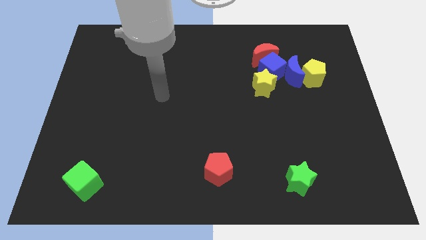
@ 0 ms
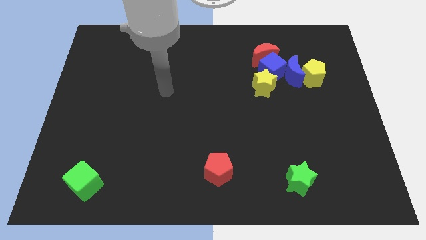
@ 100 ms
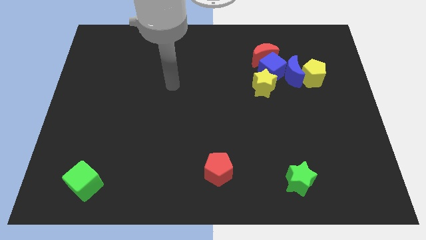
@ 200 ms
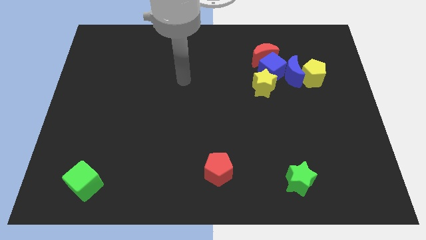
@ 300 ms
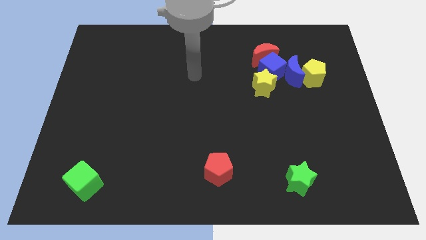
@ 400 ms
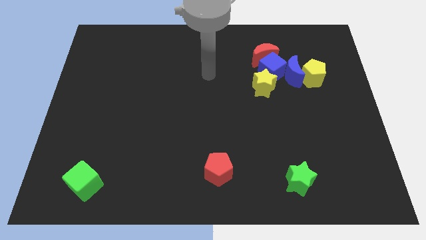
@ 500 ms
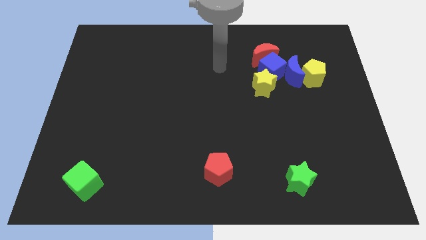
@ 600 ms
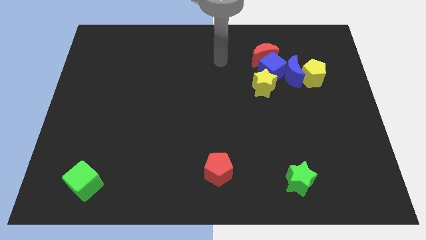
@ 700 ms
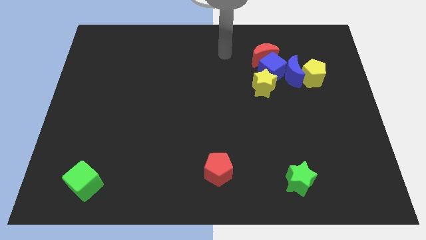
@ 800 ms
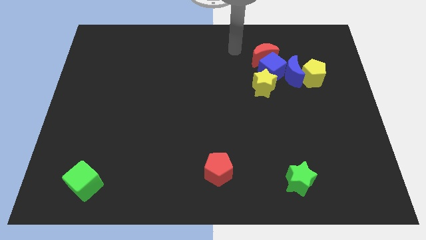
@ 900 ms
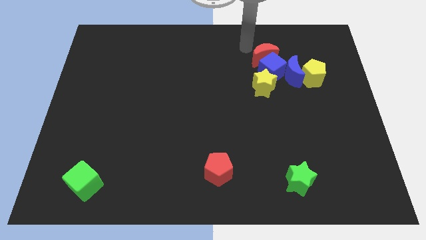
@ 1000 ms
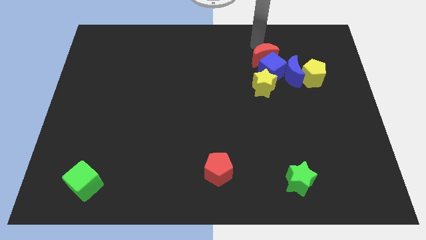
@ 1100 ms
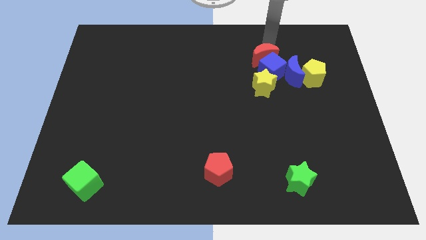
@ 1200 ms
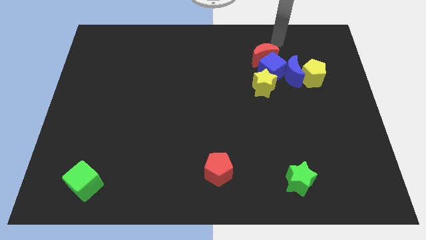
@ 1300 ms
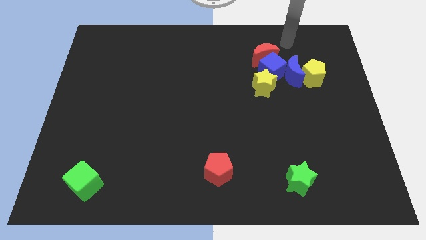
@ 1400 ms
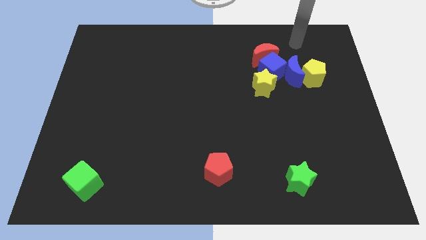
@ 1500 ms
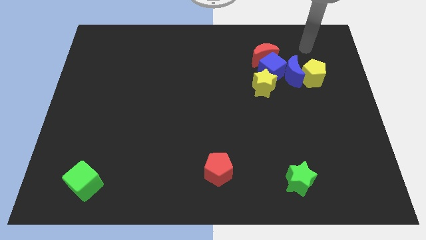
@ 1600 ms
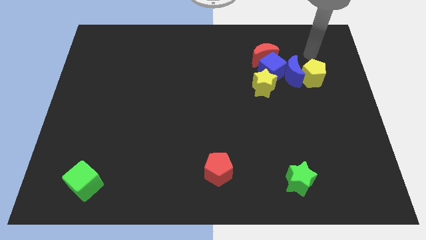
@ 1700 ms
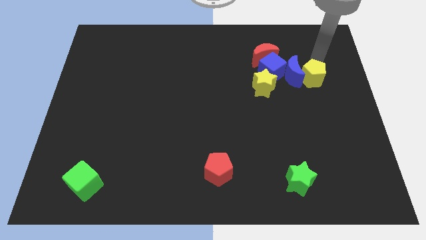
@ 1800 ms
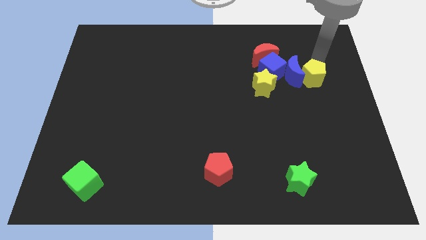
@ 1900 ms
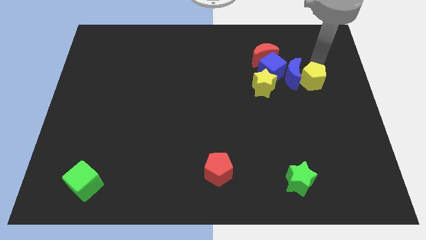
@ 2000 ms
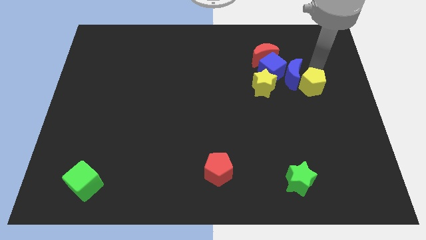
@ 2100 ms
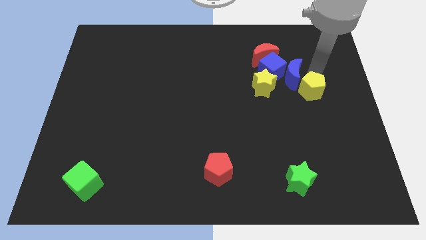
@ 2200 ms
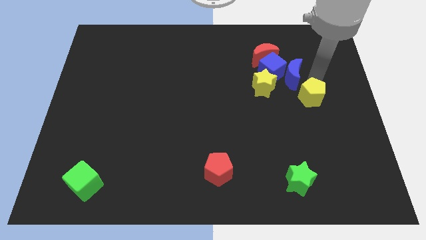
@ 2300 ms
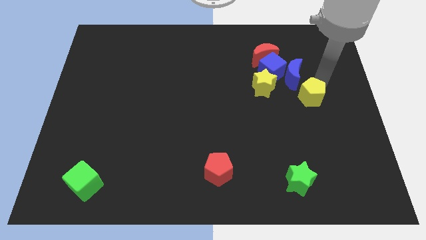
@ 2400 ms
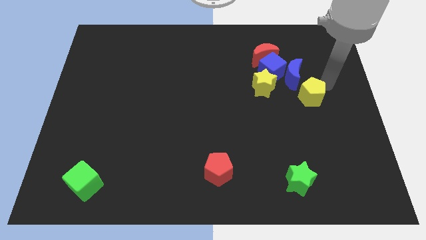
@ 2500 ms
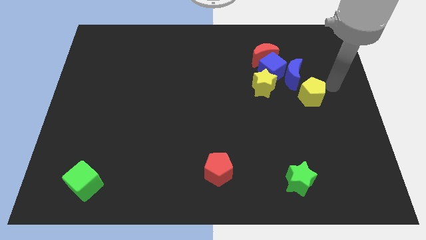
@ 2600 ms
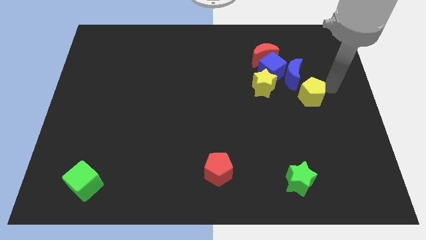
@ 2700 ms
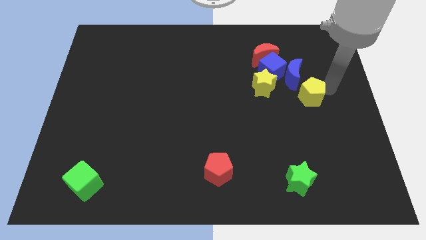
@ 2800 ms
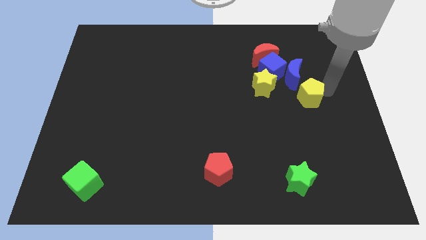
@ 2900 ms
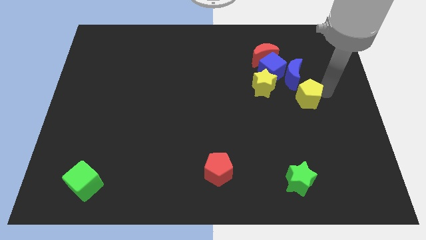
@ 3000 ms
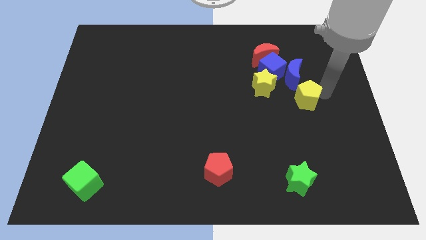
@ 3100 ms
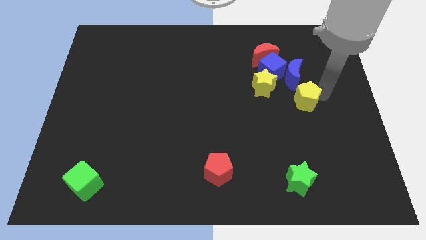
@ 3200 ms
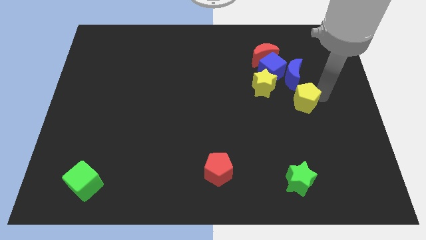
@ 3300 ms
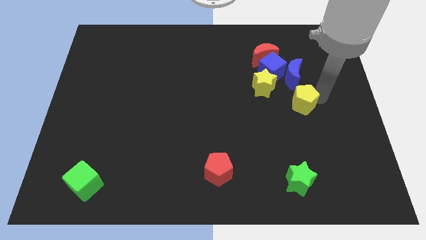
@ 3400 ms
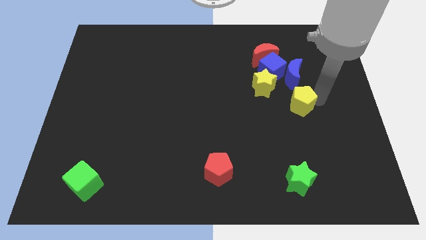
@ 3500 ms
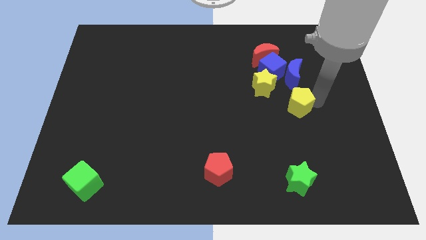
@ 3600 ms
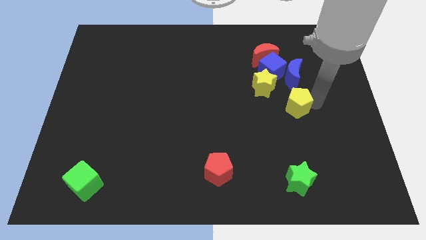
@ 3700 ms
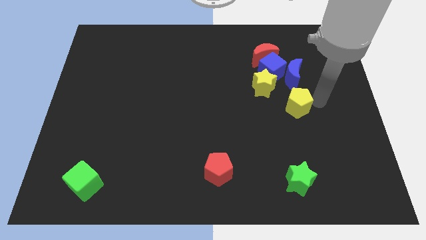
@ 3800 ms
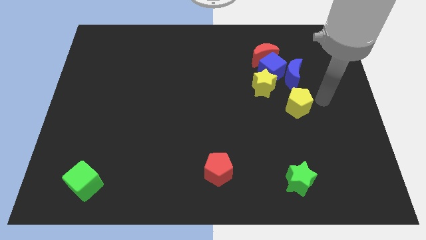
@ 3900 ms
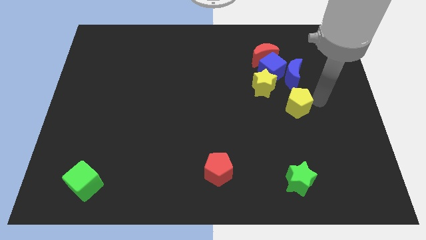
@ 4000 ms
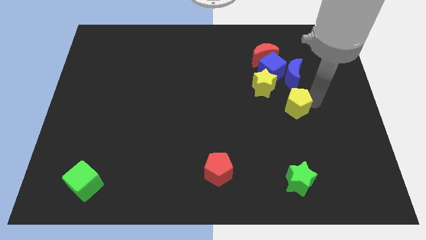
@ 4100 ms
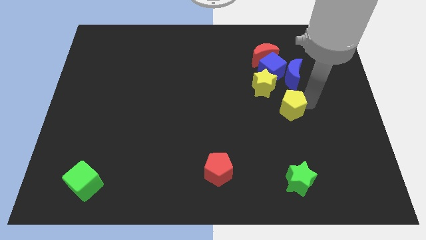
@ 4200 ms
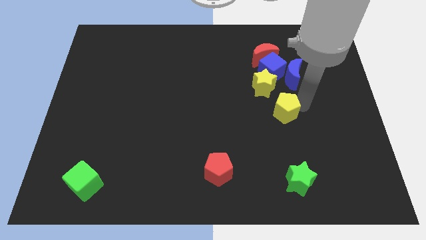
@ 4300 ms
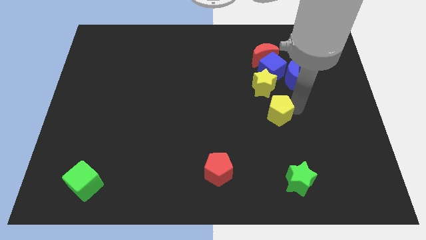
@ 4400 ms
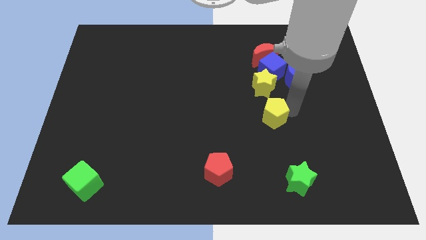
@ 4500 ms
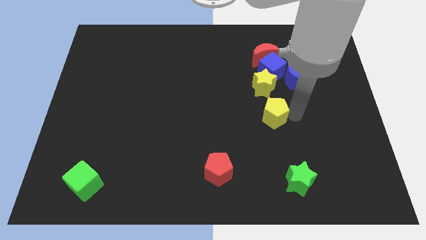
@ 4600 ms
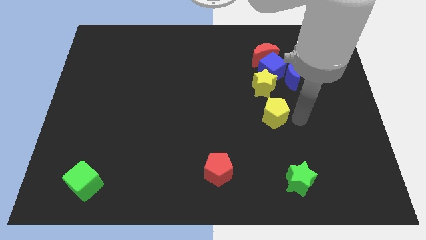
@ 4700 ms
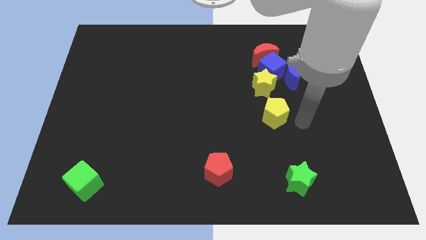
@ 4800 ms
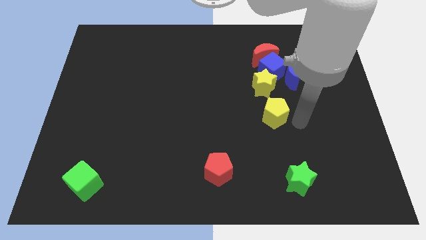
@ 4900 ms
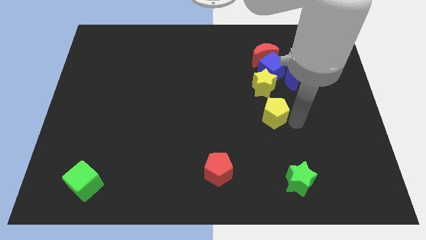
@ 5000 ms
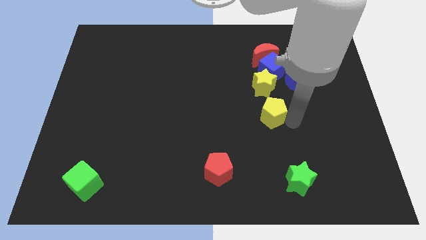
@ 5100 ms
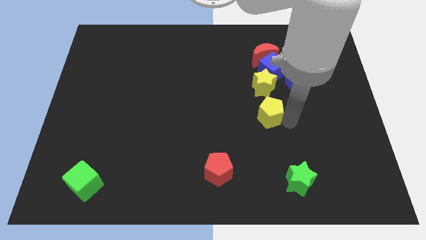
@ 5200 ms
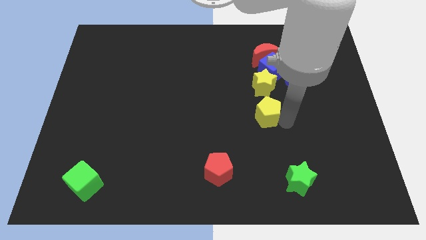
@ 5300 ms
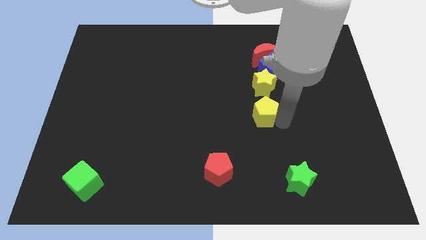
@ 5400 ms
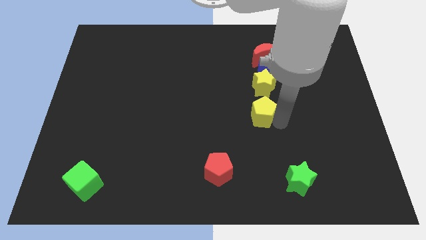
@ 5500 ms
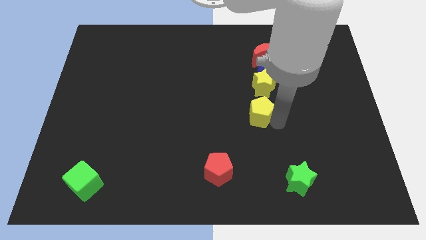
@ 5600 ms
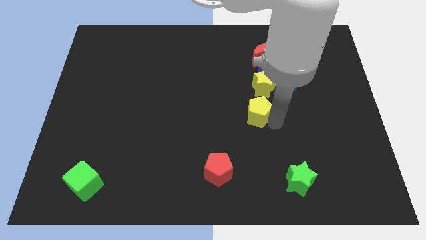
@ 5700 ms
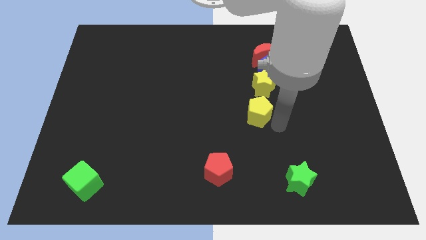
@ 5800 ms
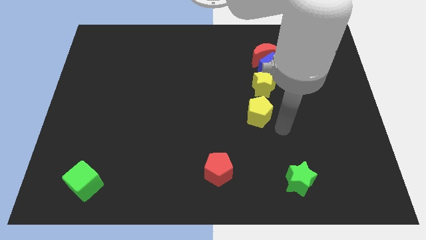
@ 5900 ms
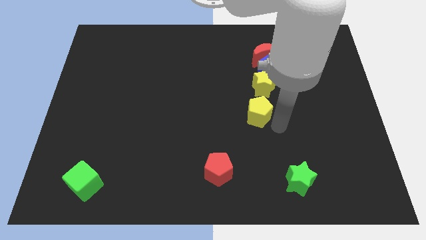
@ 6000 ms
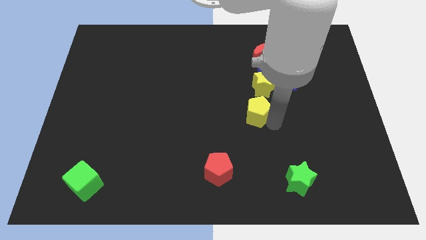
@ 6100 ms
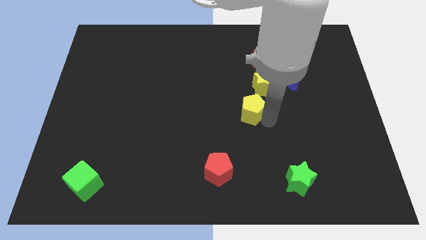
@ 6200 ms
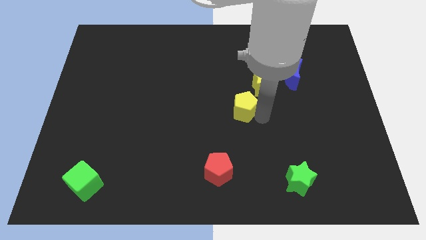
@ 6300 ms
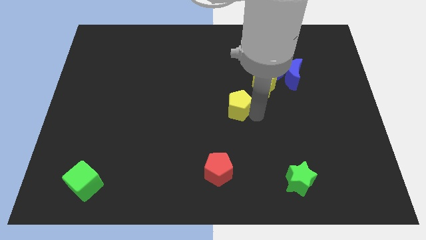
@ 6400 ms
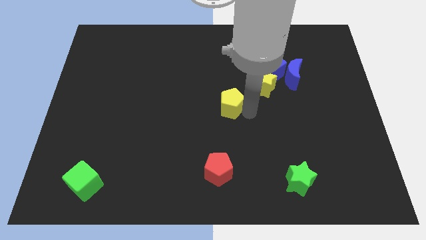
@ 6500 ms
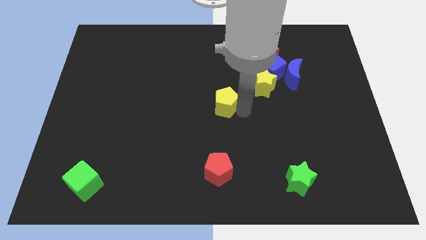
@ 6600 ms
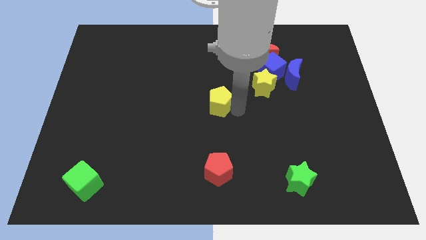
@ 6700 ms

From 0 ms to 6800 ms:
slide the yellow pentagon left

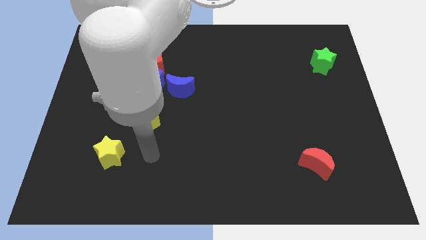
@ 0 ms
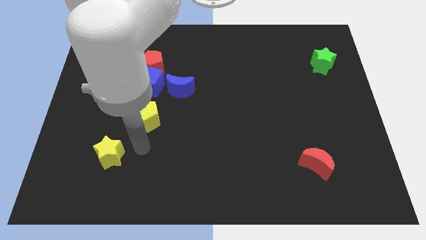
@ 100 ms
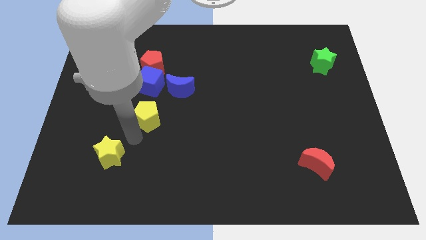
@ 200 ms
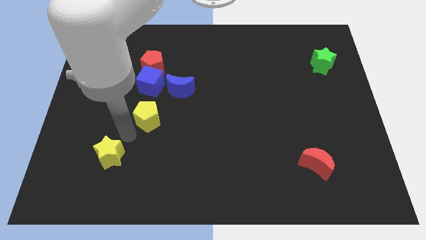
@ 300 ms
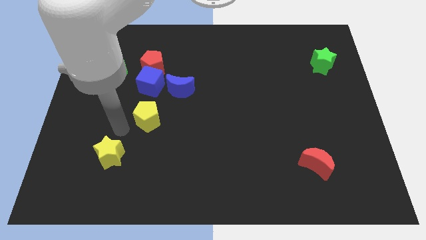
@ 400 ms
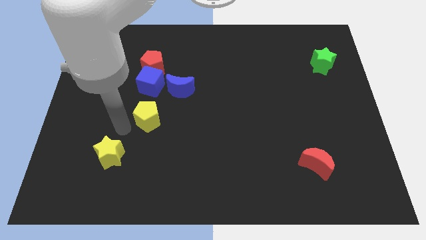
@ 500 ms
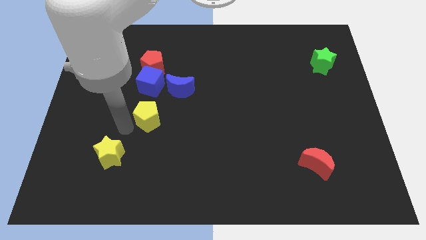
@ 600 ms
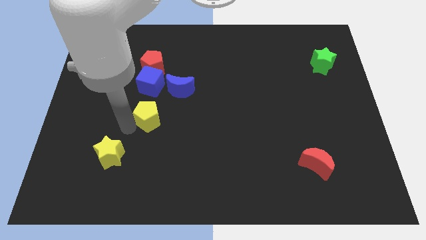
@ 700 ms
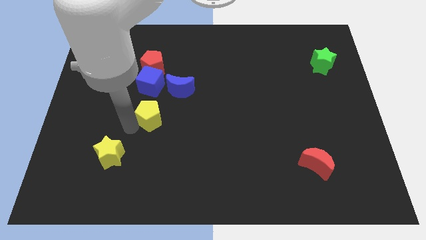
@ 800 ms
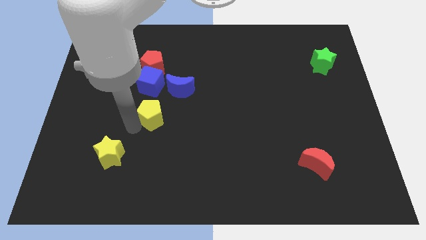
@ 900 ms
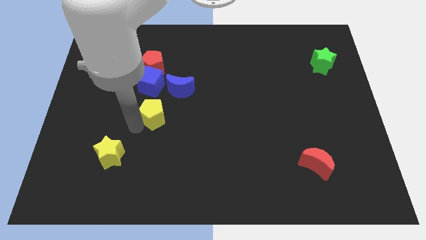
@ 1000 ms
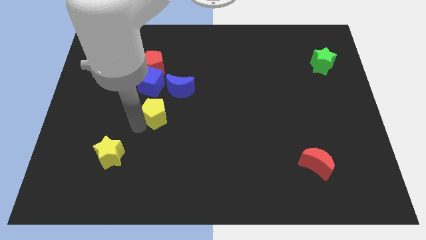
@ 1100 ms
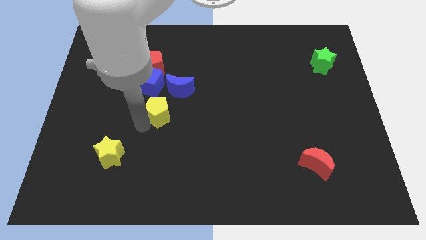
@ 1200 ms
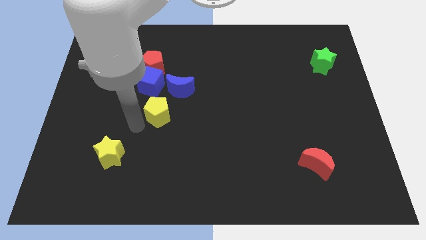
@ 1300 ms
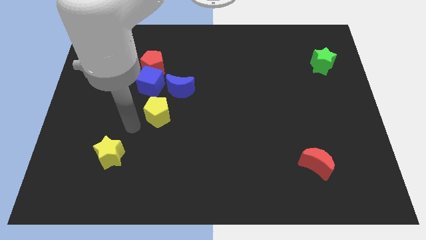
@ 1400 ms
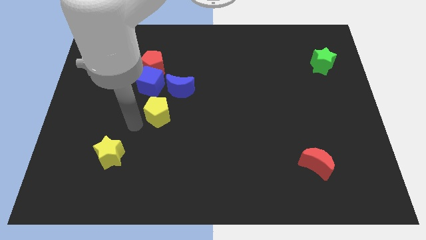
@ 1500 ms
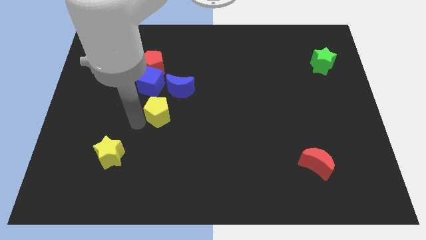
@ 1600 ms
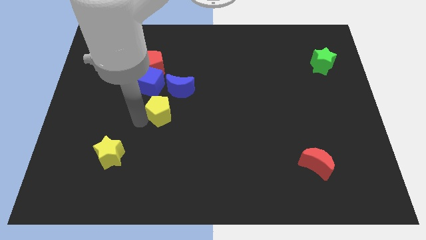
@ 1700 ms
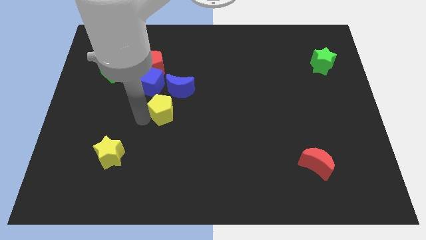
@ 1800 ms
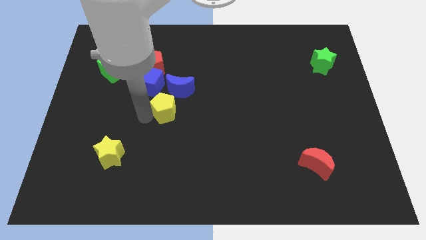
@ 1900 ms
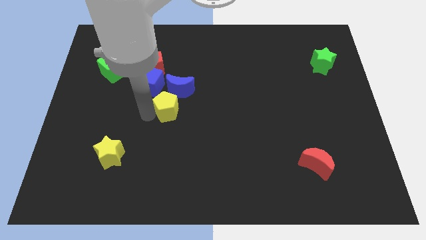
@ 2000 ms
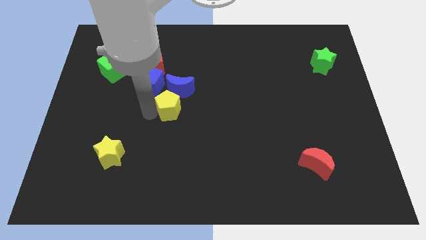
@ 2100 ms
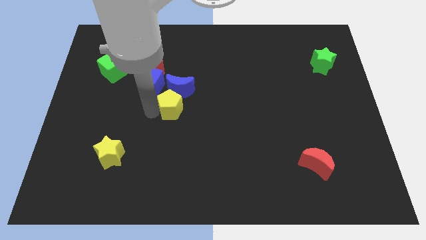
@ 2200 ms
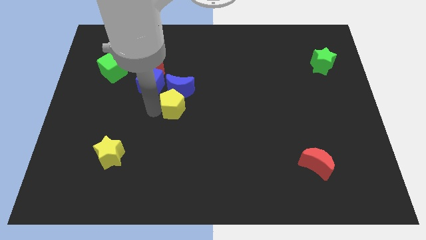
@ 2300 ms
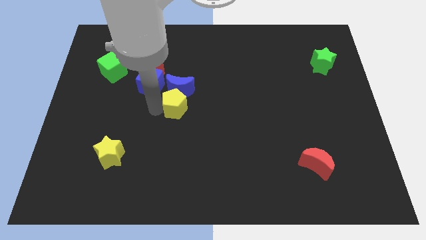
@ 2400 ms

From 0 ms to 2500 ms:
push the yellow pentagon upwards and right diagonally a little
